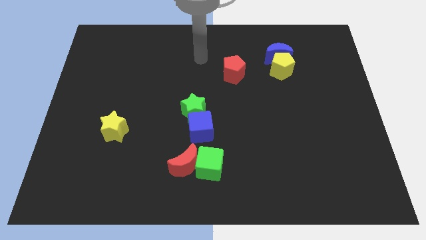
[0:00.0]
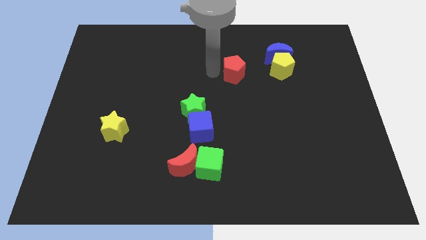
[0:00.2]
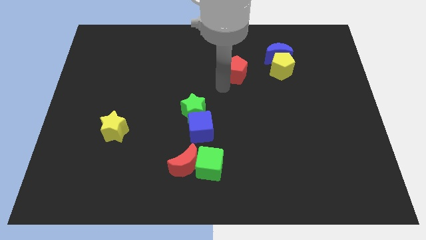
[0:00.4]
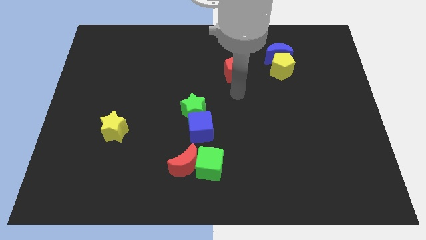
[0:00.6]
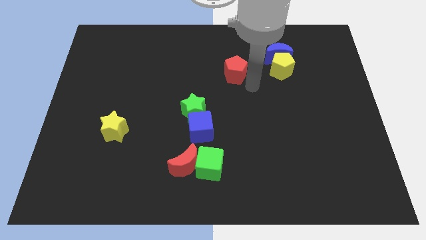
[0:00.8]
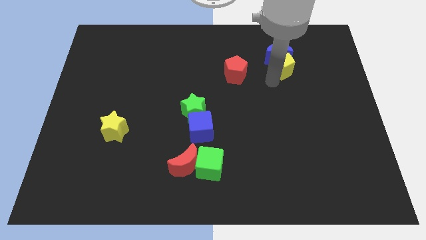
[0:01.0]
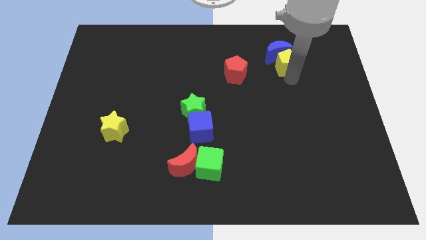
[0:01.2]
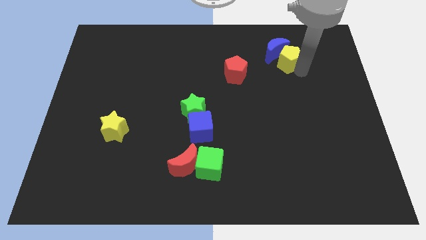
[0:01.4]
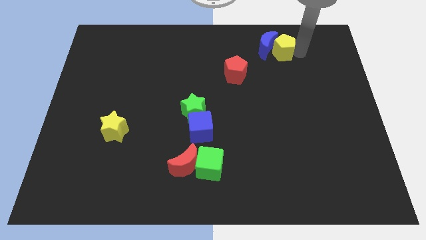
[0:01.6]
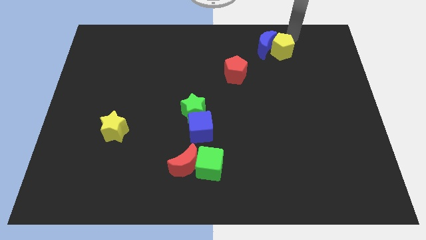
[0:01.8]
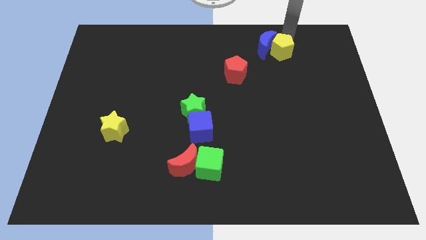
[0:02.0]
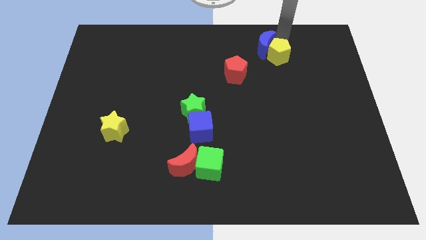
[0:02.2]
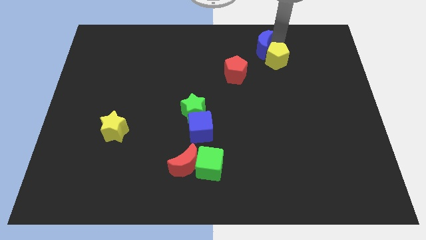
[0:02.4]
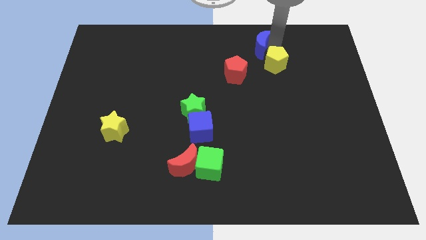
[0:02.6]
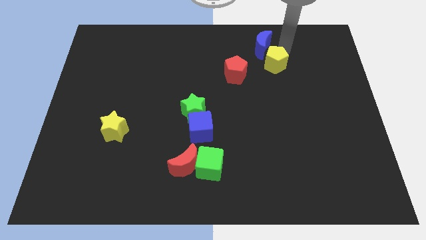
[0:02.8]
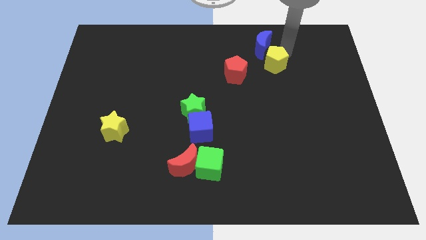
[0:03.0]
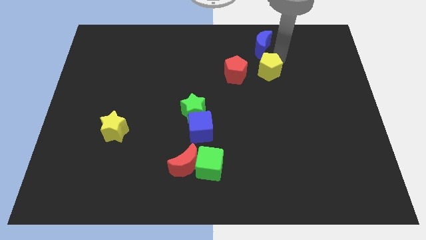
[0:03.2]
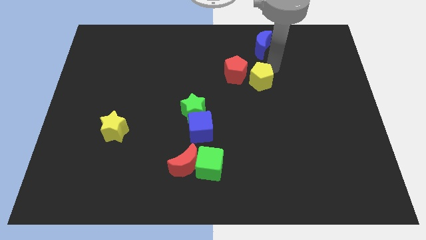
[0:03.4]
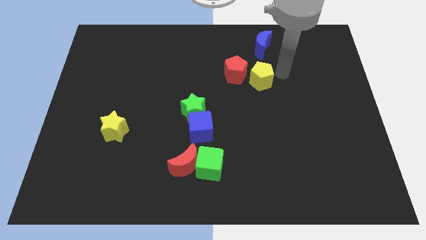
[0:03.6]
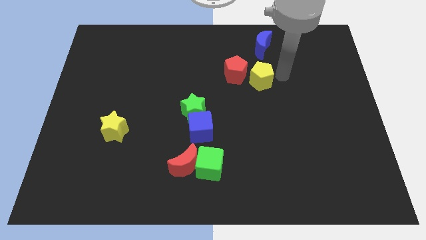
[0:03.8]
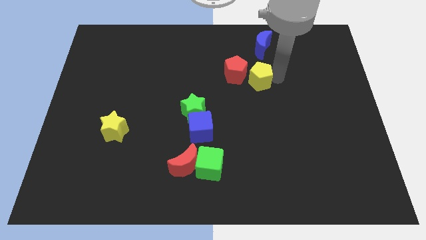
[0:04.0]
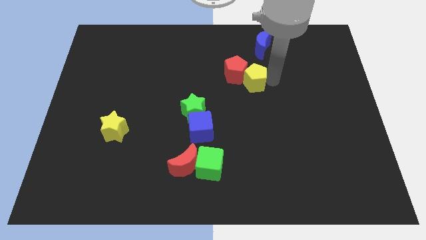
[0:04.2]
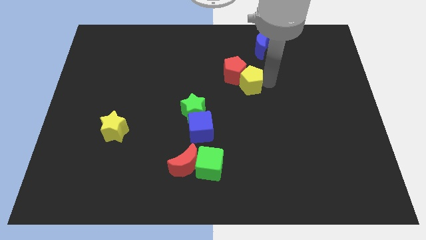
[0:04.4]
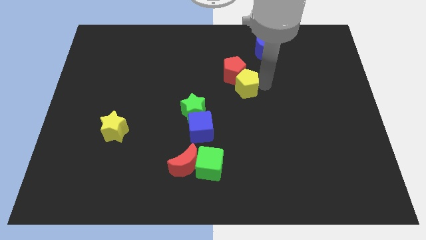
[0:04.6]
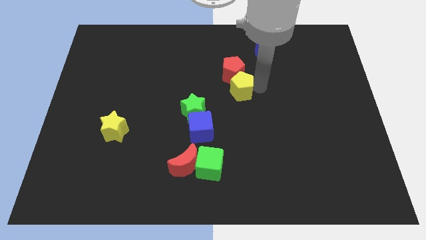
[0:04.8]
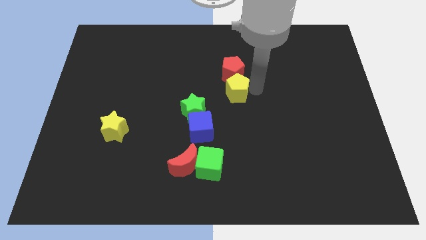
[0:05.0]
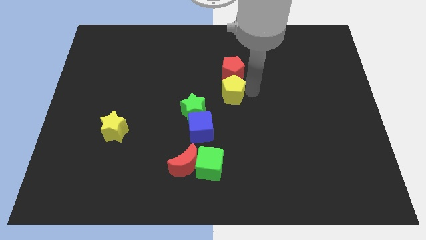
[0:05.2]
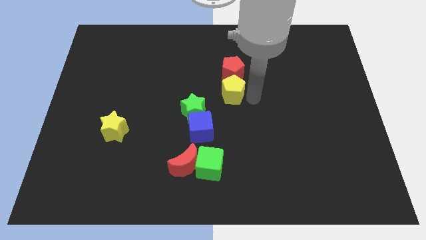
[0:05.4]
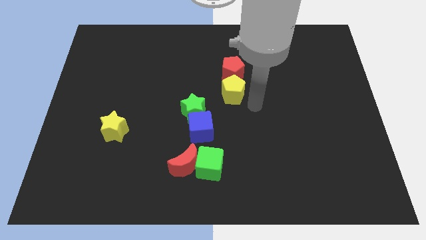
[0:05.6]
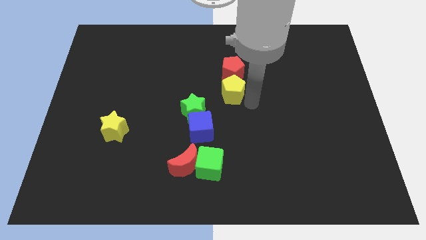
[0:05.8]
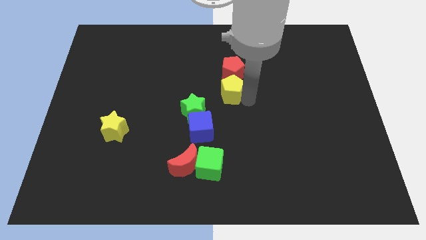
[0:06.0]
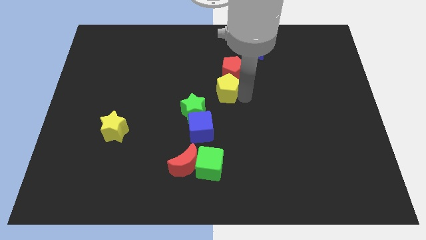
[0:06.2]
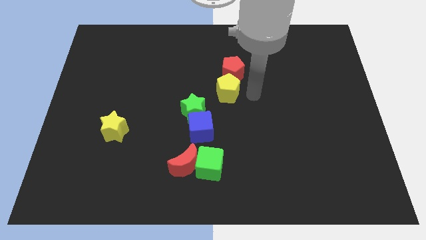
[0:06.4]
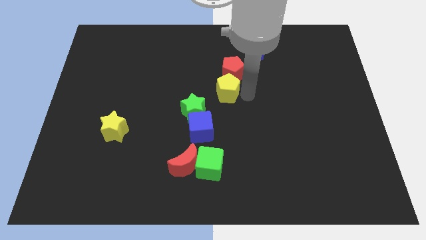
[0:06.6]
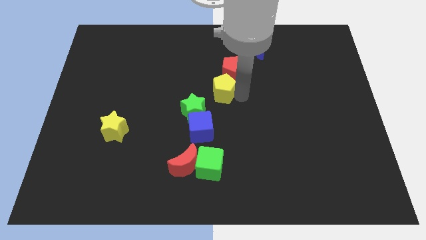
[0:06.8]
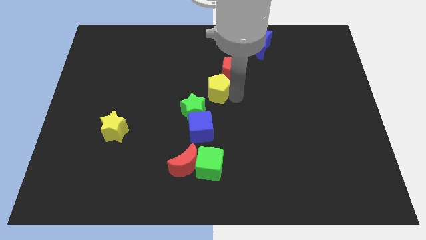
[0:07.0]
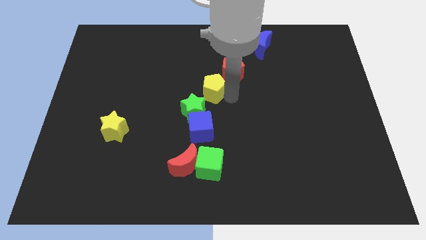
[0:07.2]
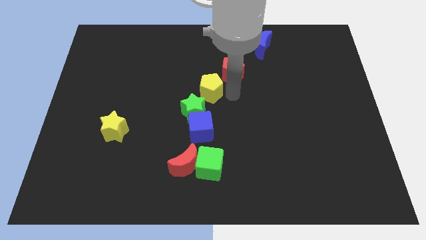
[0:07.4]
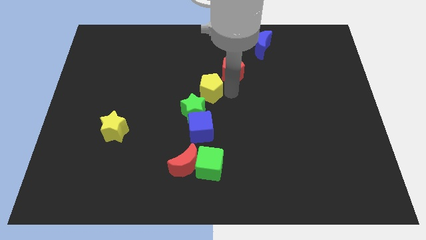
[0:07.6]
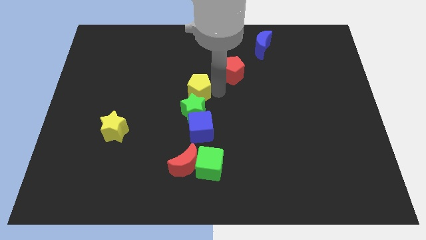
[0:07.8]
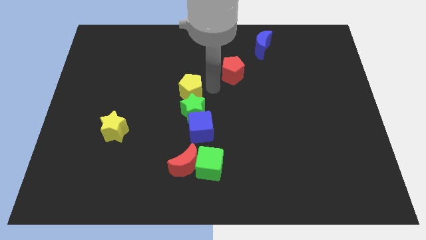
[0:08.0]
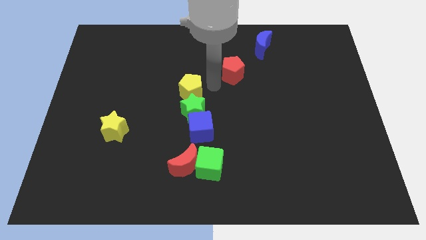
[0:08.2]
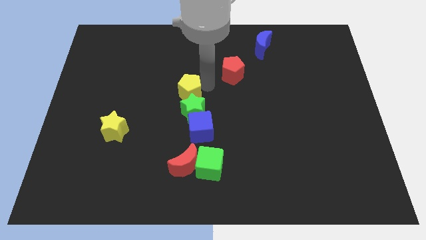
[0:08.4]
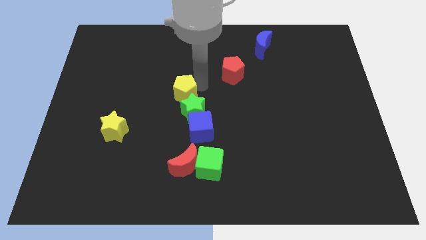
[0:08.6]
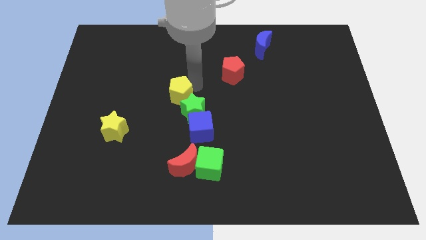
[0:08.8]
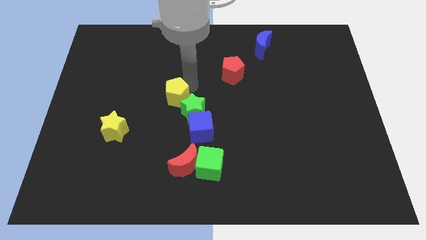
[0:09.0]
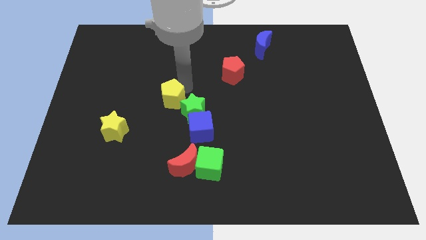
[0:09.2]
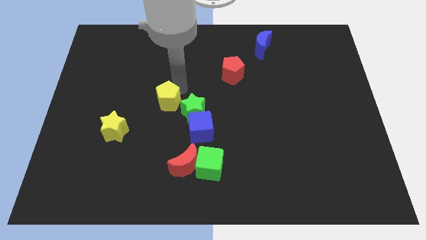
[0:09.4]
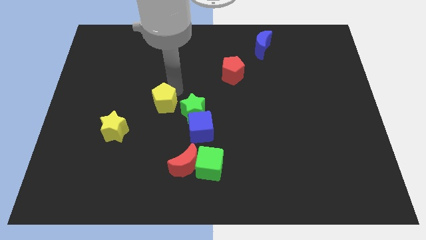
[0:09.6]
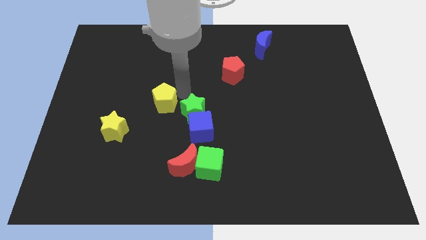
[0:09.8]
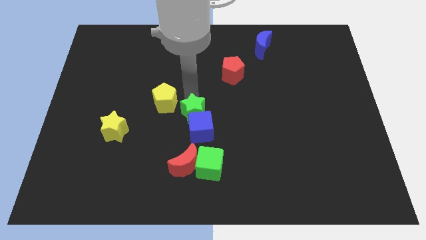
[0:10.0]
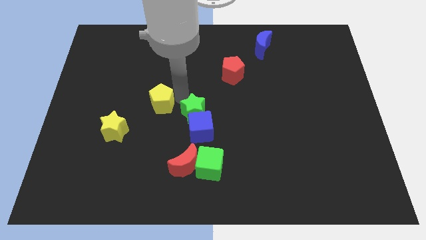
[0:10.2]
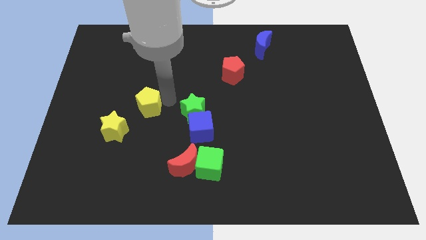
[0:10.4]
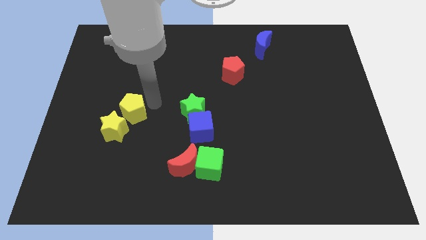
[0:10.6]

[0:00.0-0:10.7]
slide the yellow pentagon next to the yellow star

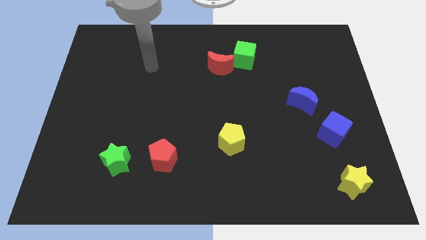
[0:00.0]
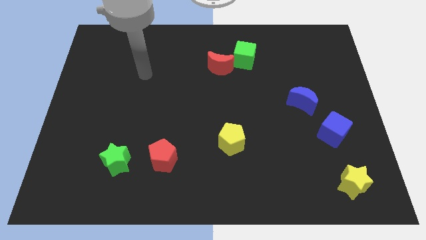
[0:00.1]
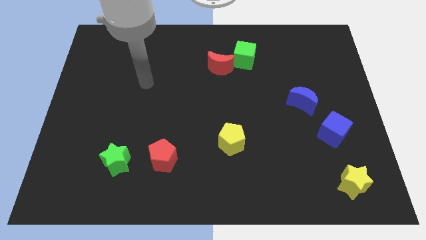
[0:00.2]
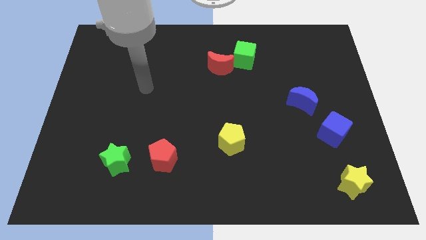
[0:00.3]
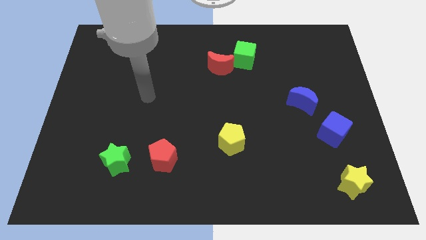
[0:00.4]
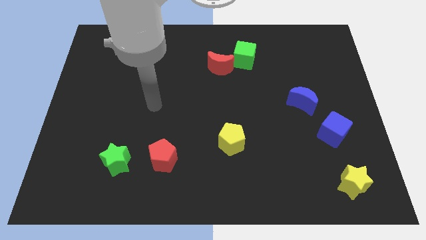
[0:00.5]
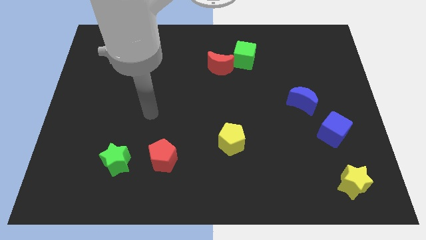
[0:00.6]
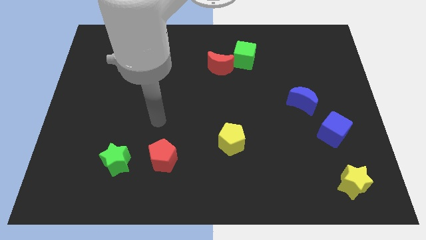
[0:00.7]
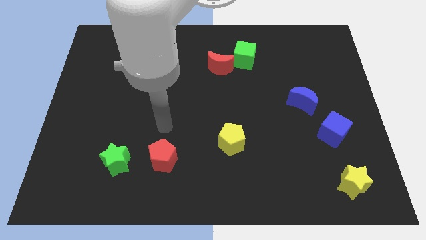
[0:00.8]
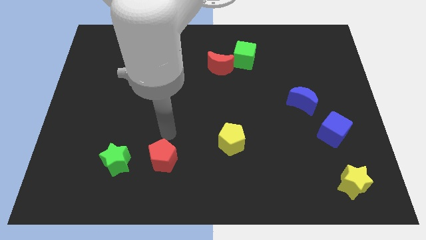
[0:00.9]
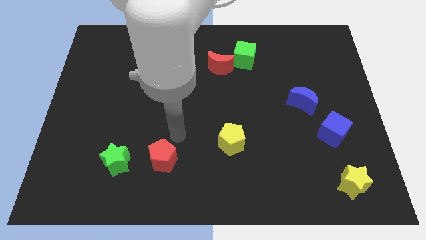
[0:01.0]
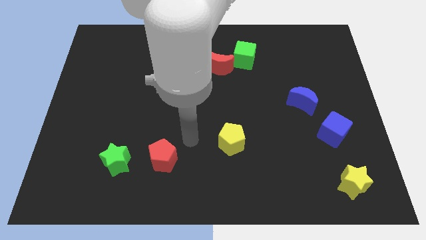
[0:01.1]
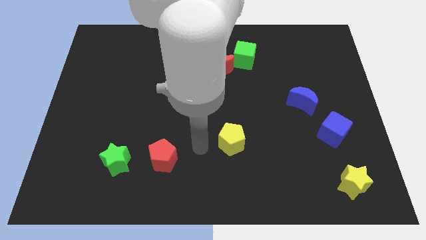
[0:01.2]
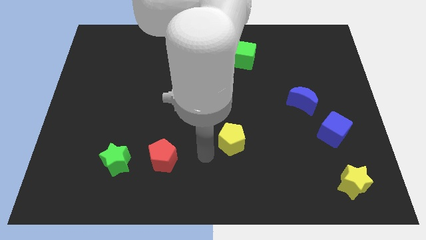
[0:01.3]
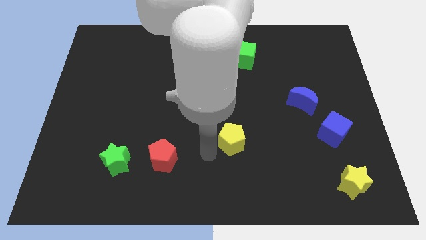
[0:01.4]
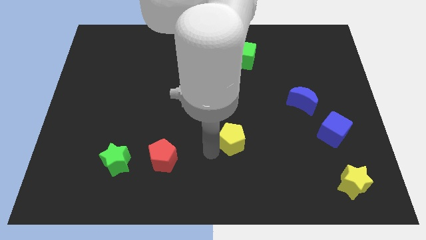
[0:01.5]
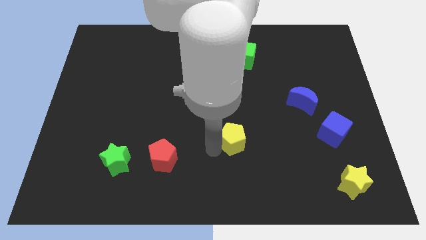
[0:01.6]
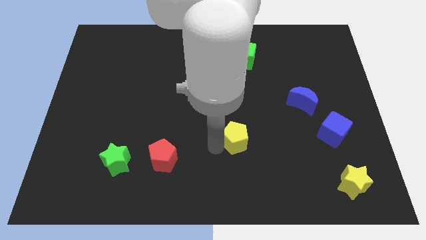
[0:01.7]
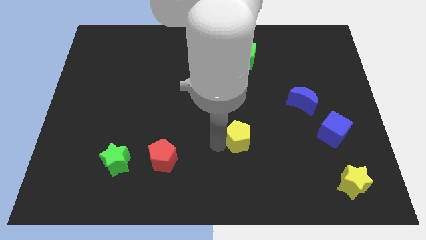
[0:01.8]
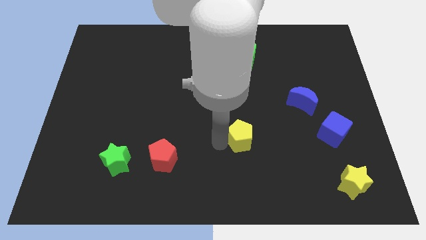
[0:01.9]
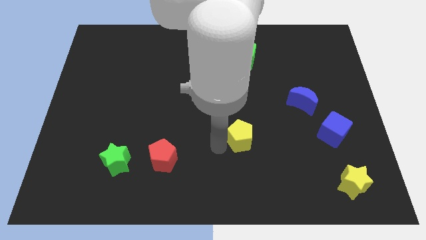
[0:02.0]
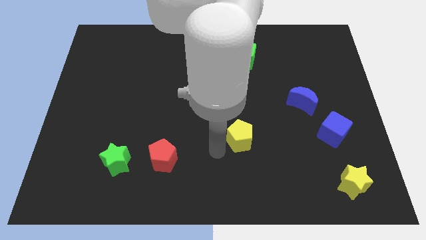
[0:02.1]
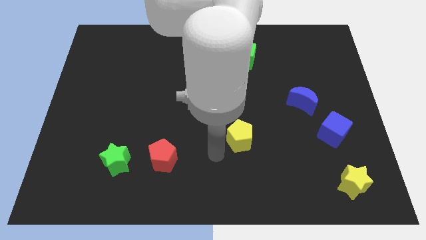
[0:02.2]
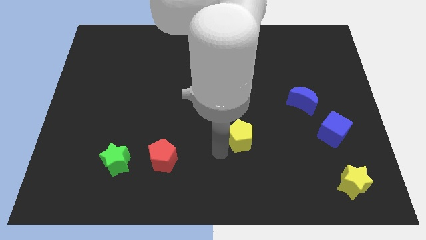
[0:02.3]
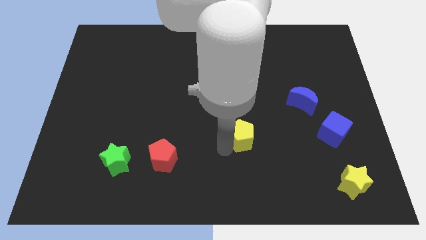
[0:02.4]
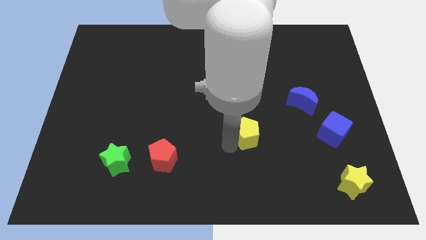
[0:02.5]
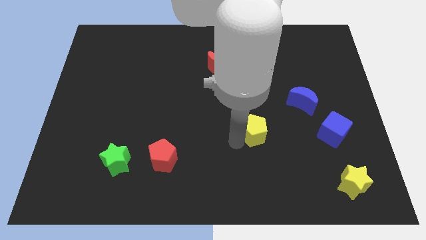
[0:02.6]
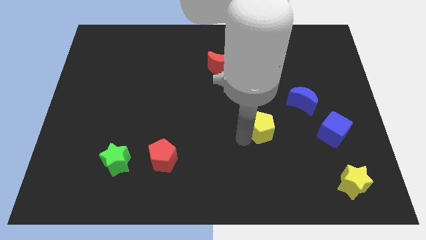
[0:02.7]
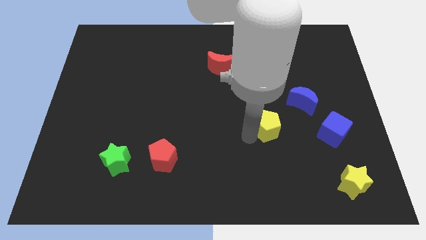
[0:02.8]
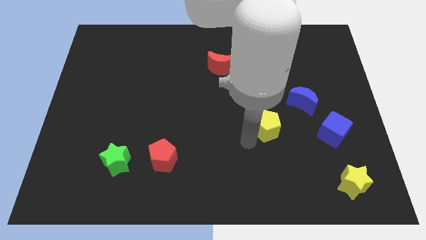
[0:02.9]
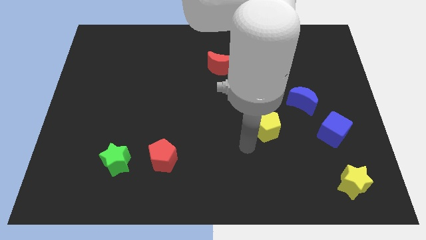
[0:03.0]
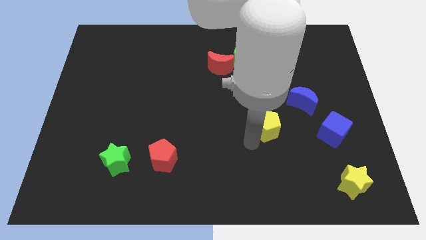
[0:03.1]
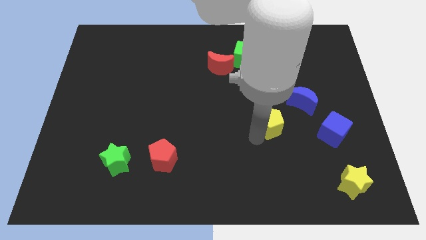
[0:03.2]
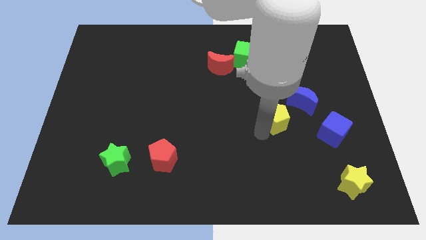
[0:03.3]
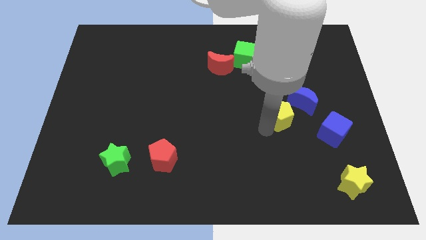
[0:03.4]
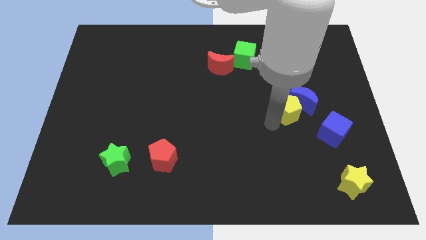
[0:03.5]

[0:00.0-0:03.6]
push the yellow pentagon close to the blue moon
